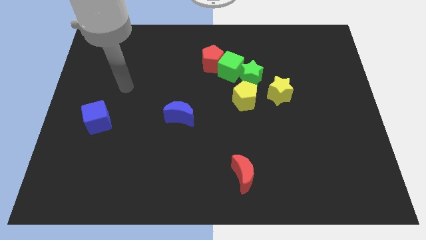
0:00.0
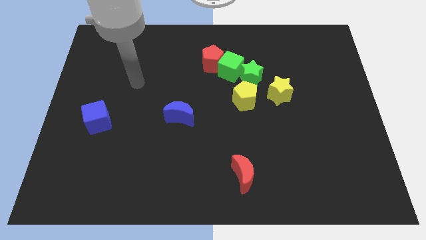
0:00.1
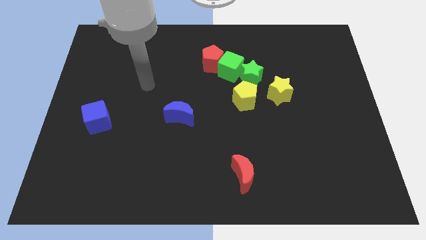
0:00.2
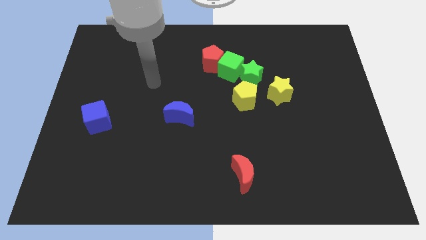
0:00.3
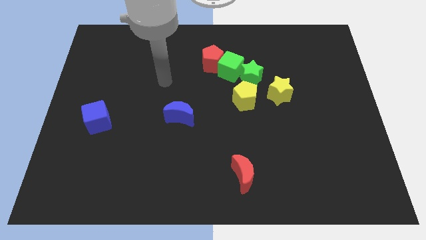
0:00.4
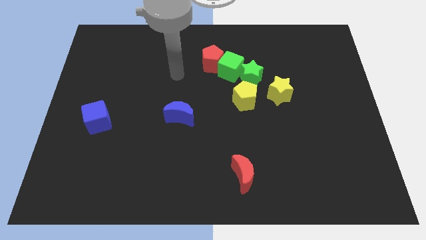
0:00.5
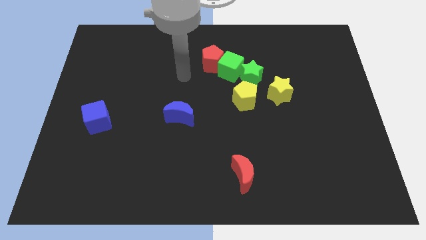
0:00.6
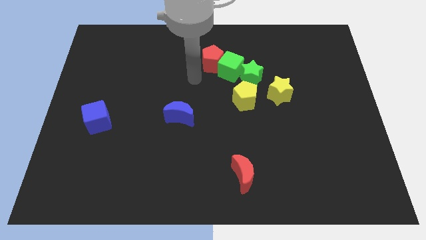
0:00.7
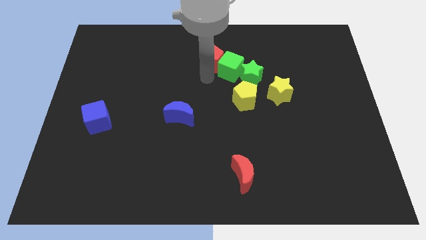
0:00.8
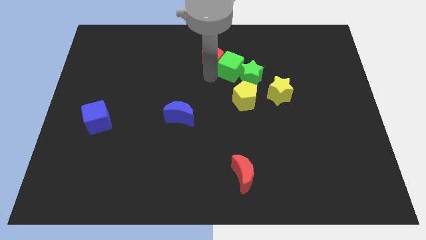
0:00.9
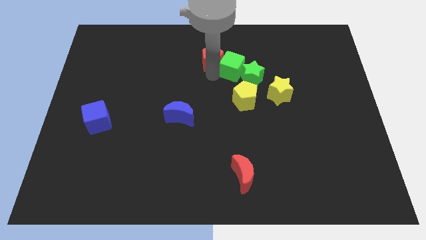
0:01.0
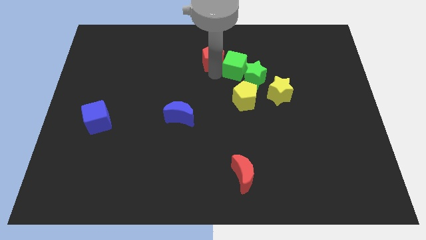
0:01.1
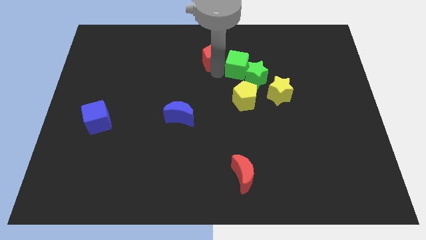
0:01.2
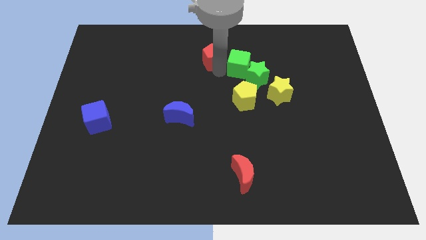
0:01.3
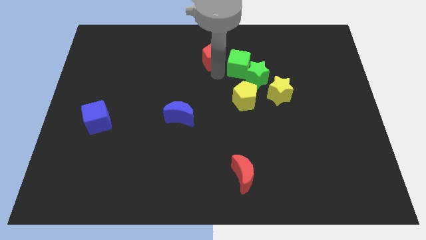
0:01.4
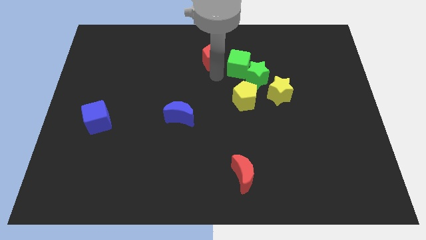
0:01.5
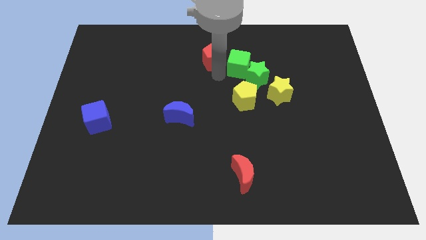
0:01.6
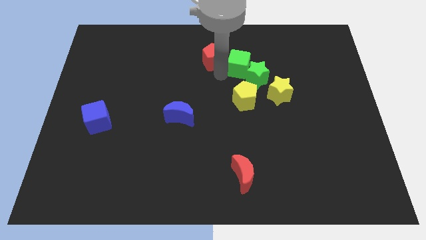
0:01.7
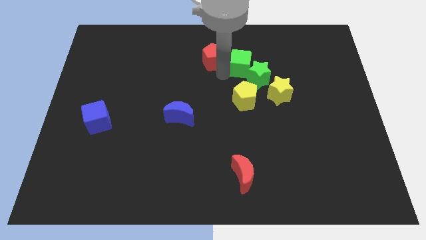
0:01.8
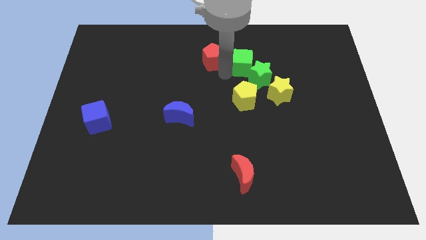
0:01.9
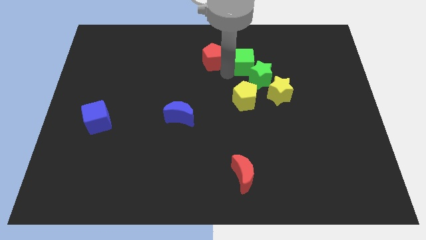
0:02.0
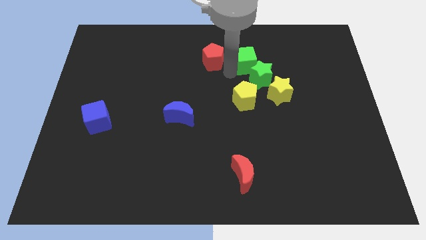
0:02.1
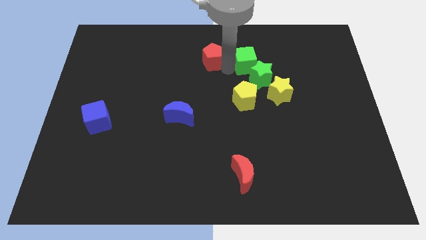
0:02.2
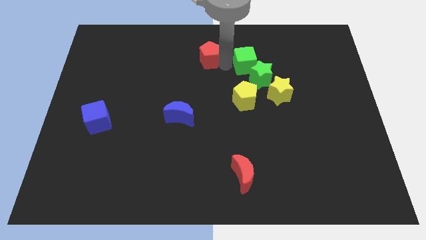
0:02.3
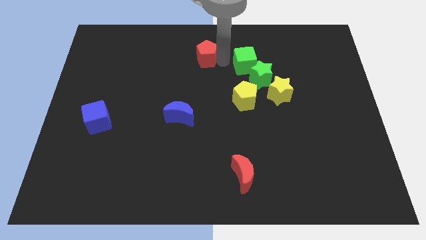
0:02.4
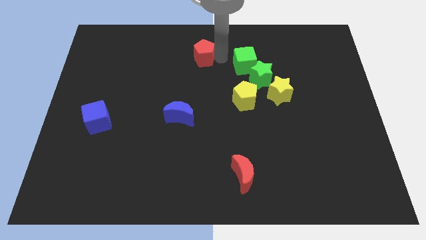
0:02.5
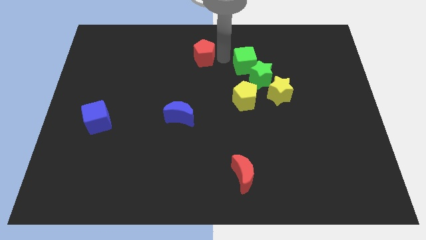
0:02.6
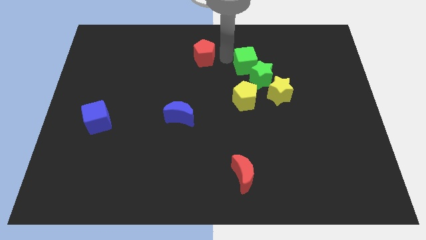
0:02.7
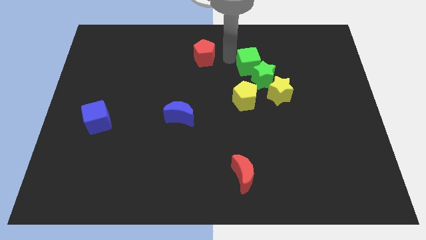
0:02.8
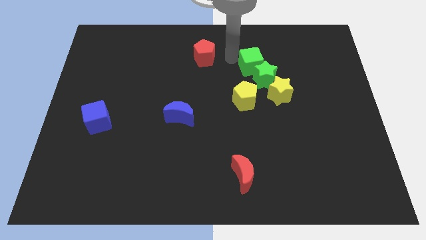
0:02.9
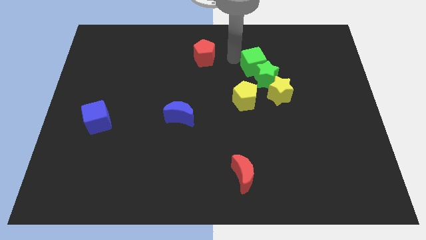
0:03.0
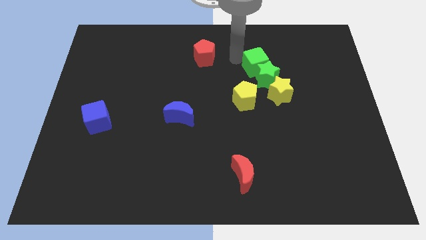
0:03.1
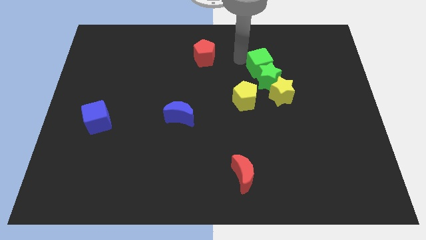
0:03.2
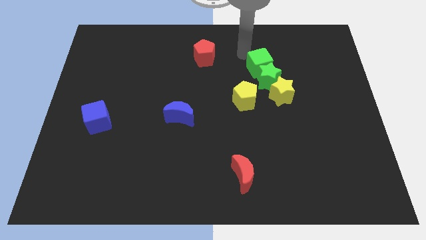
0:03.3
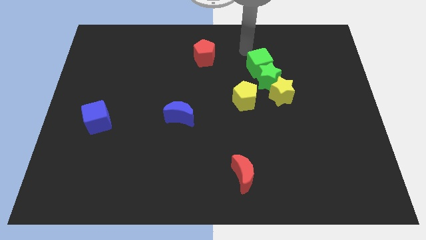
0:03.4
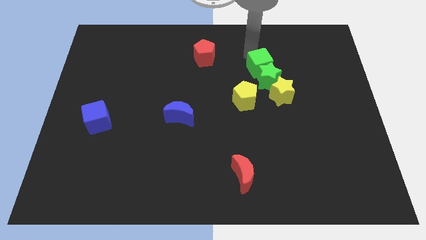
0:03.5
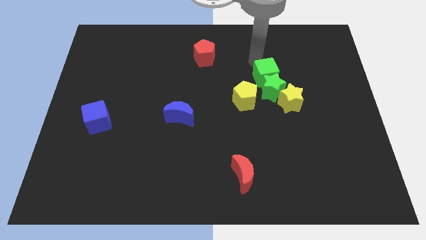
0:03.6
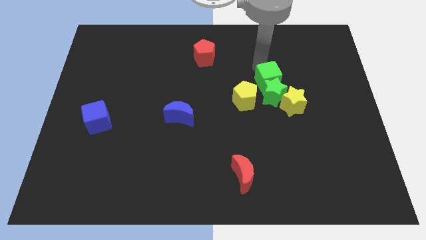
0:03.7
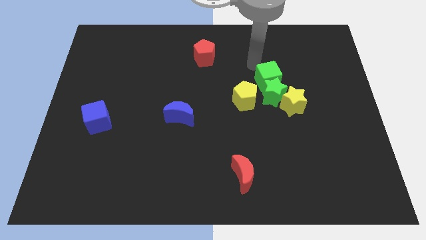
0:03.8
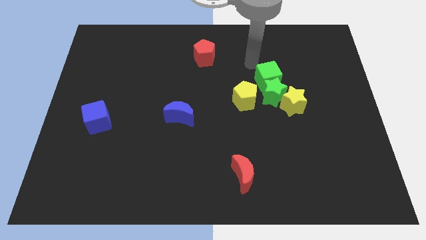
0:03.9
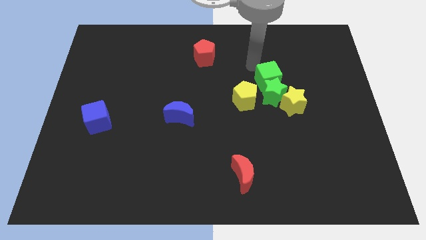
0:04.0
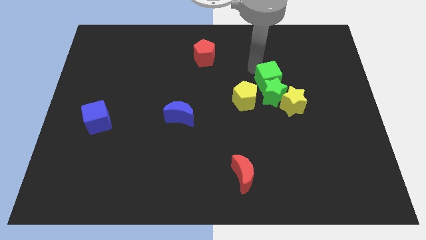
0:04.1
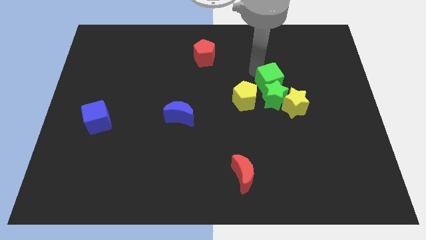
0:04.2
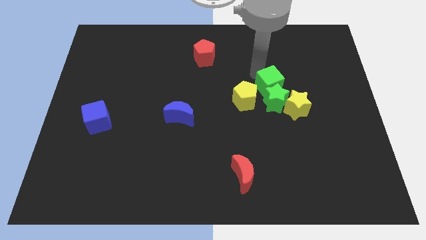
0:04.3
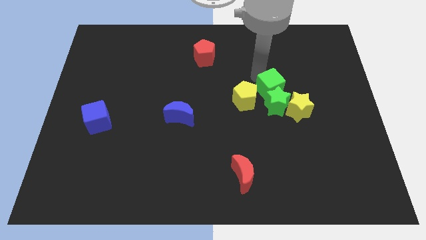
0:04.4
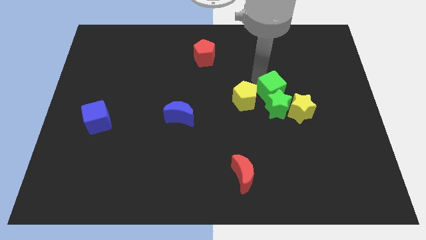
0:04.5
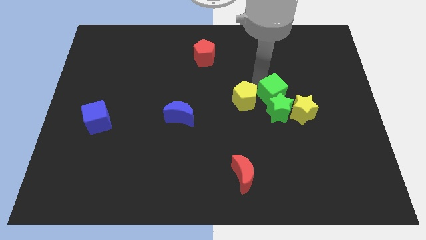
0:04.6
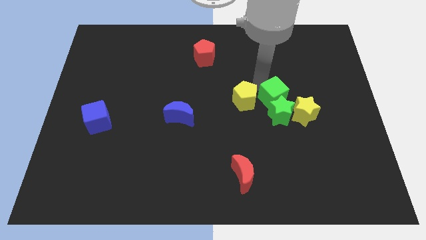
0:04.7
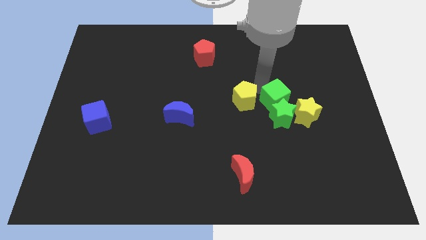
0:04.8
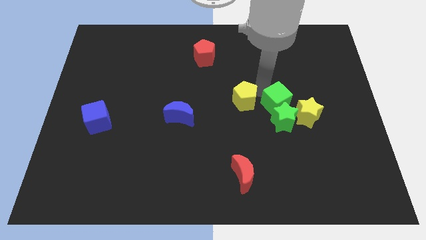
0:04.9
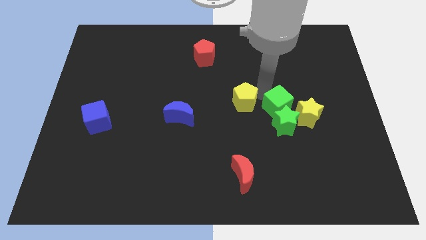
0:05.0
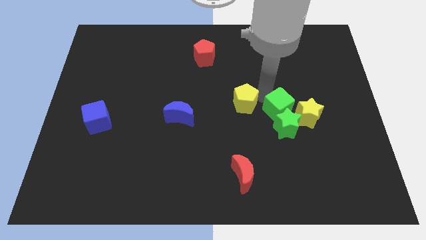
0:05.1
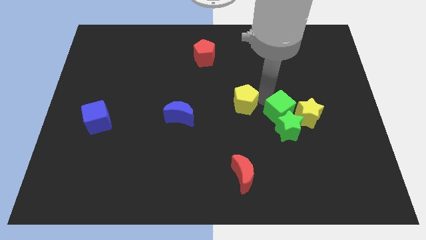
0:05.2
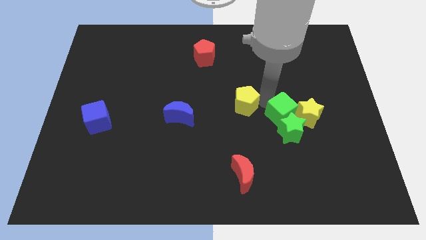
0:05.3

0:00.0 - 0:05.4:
push the green cube close to the yellow star

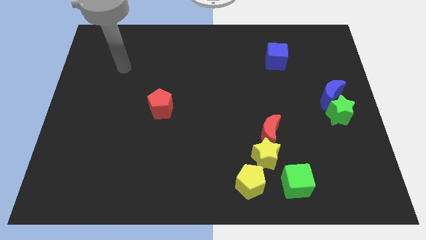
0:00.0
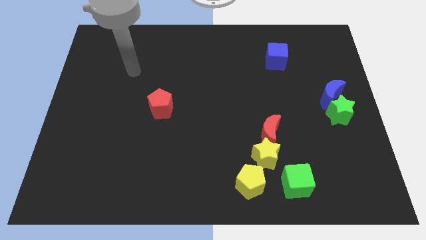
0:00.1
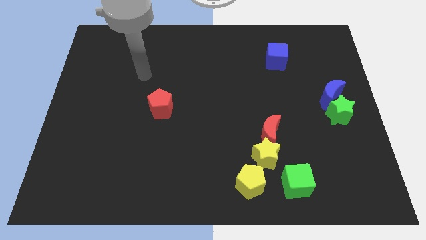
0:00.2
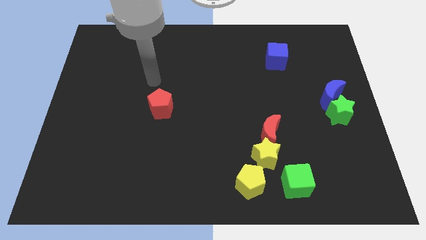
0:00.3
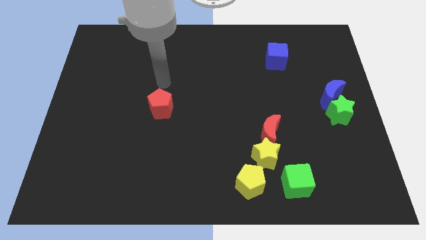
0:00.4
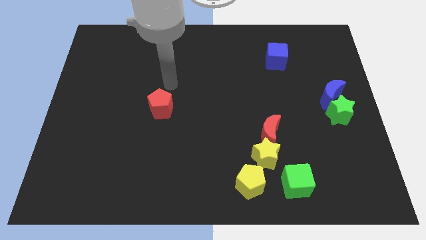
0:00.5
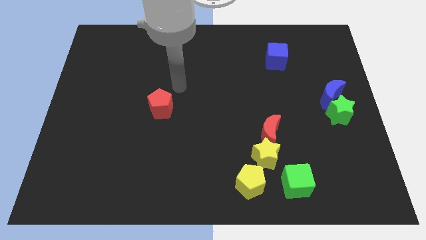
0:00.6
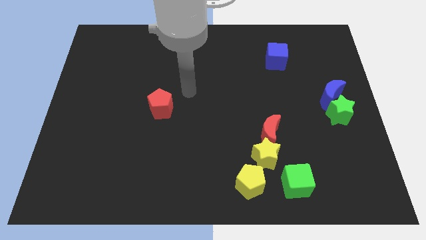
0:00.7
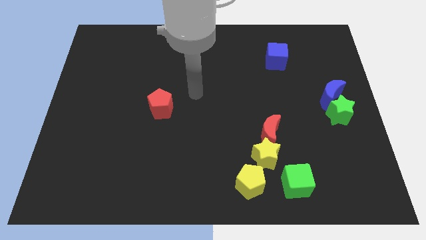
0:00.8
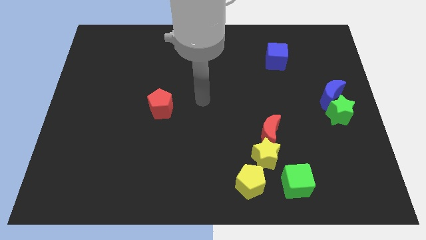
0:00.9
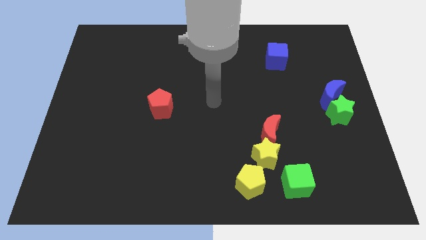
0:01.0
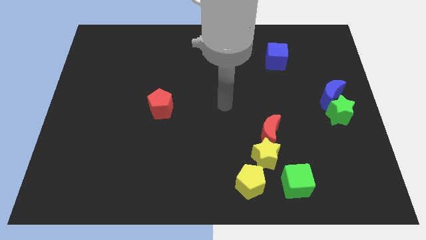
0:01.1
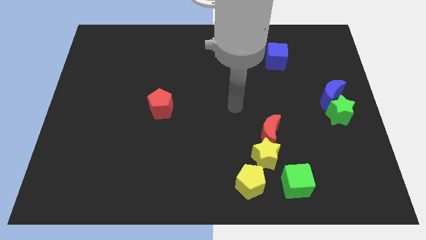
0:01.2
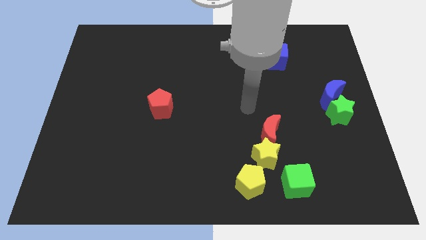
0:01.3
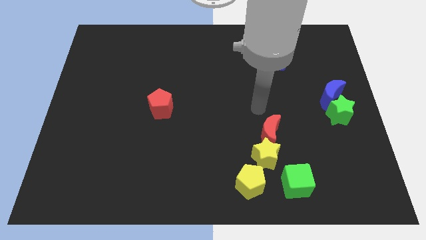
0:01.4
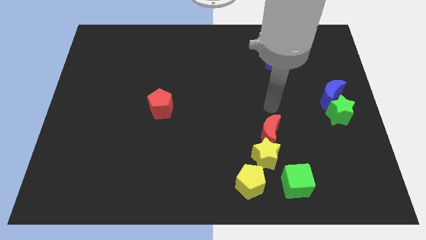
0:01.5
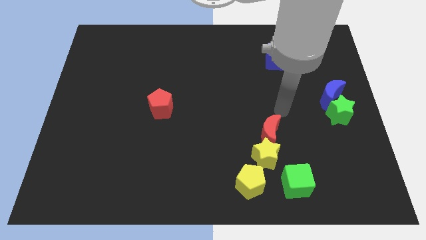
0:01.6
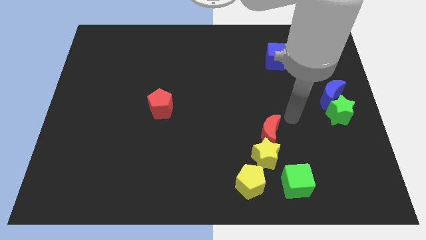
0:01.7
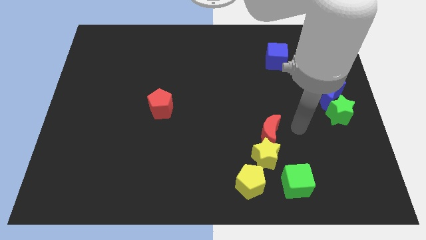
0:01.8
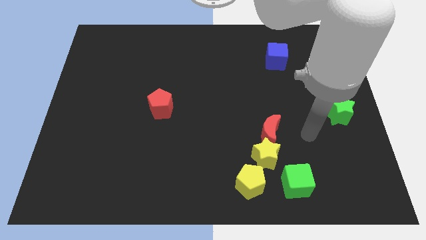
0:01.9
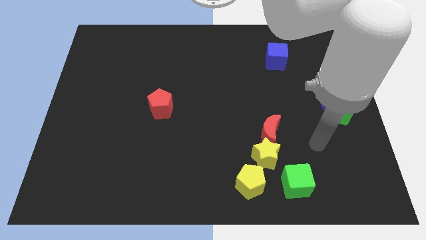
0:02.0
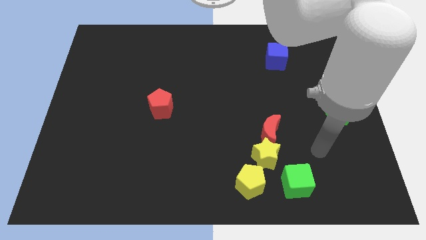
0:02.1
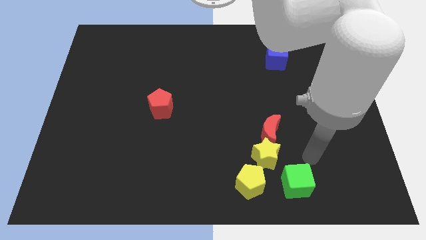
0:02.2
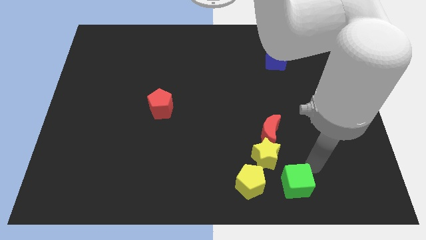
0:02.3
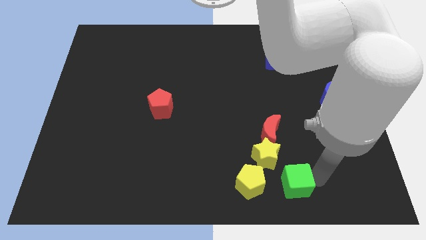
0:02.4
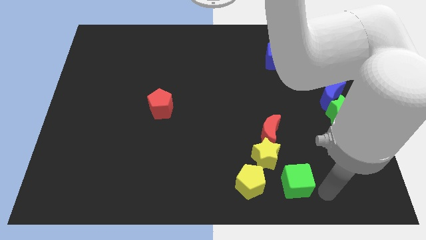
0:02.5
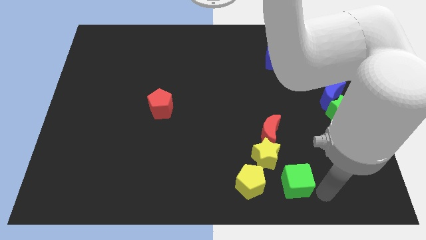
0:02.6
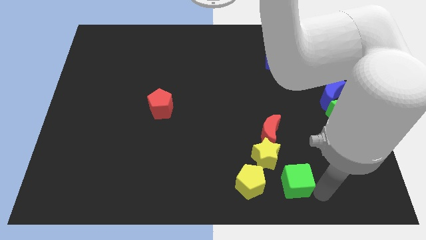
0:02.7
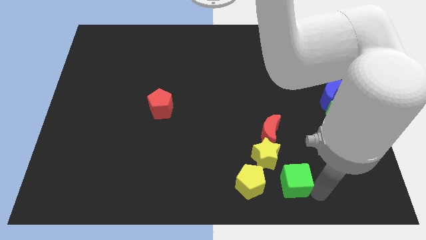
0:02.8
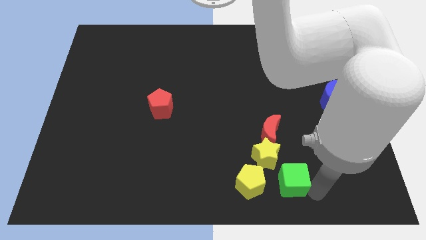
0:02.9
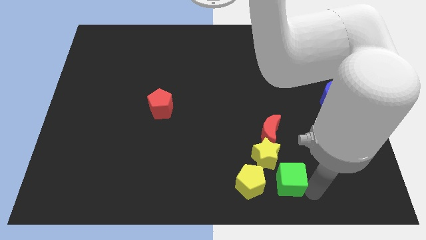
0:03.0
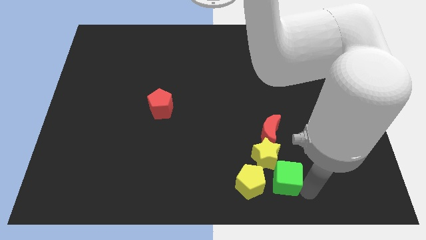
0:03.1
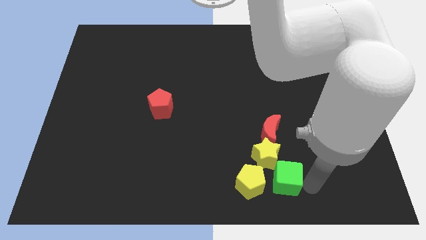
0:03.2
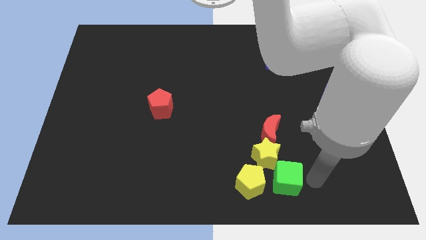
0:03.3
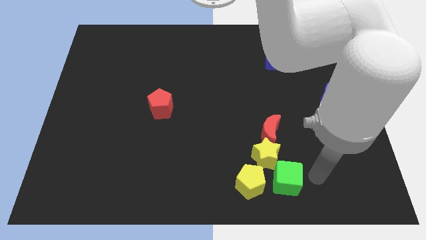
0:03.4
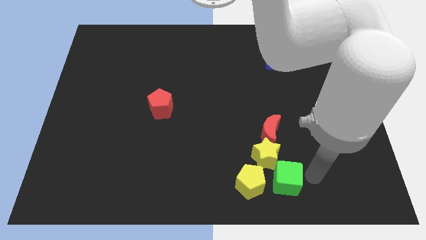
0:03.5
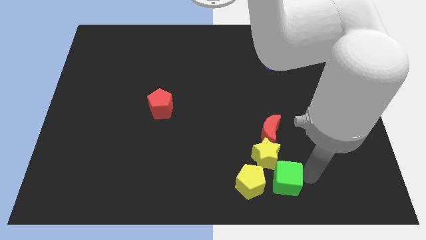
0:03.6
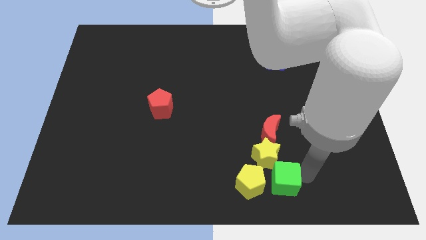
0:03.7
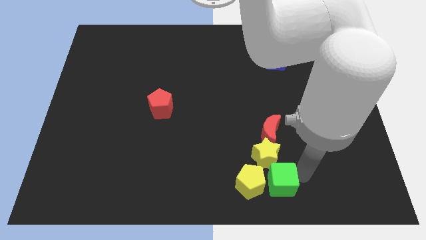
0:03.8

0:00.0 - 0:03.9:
push the green cube to the yellow pentagon
